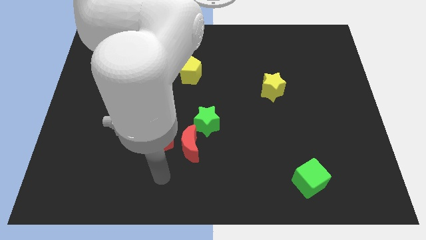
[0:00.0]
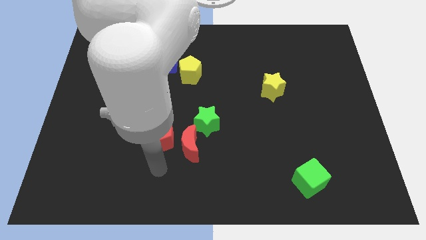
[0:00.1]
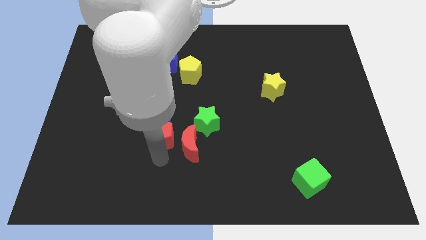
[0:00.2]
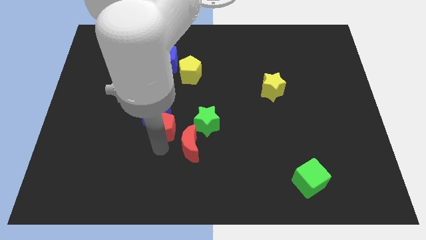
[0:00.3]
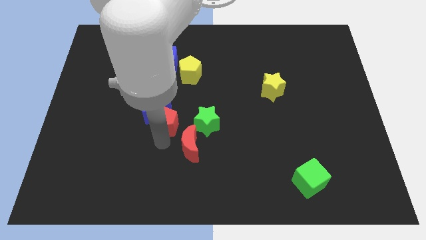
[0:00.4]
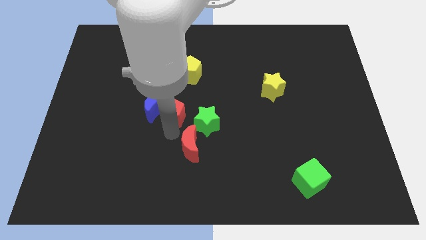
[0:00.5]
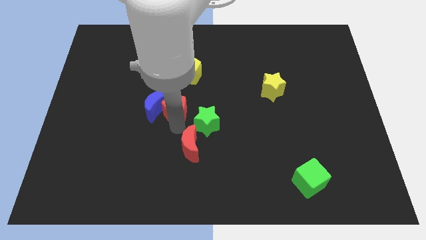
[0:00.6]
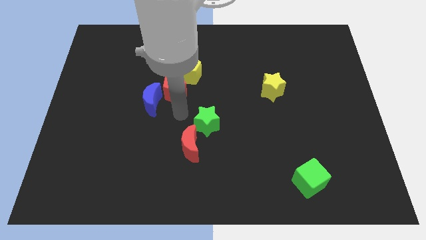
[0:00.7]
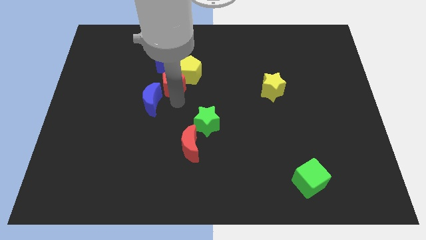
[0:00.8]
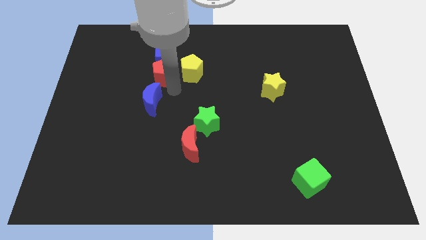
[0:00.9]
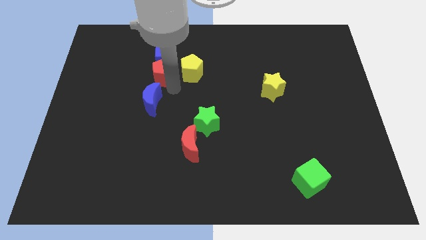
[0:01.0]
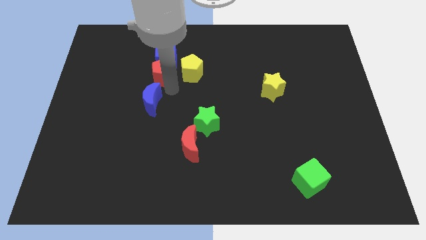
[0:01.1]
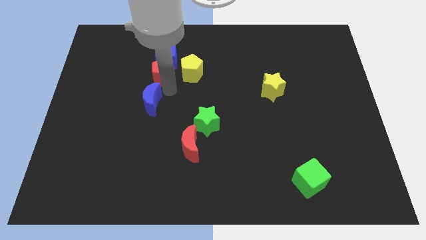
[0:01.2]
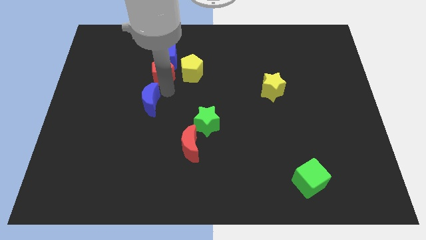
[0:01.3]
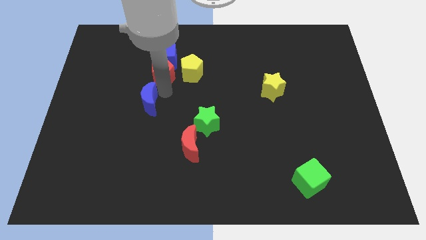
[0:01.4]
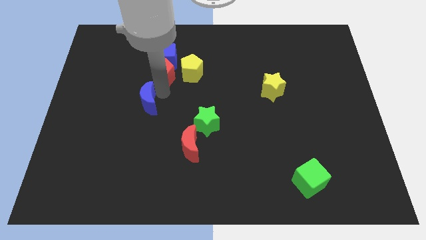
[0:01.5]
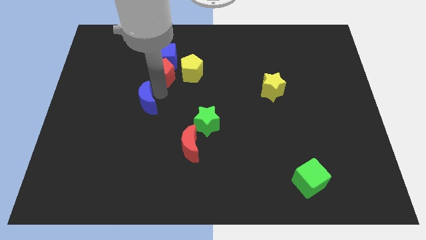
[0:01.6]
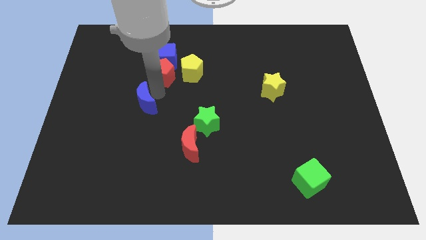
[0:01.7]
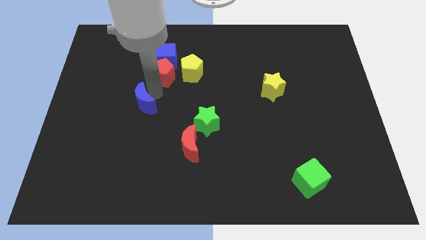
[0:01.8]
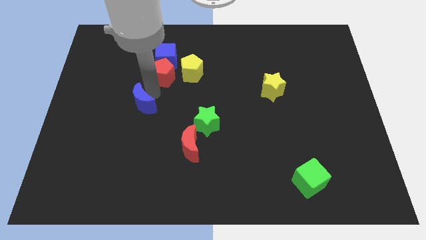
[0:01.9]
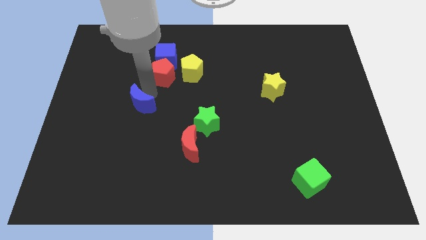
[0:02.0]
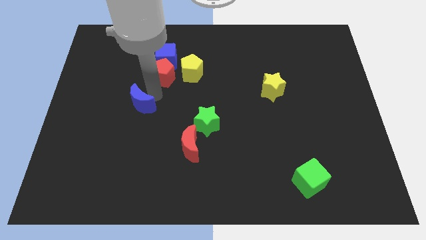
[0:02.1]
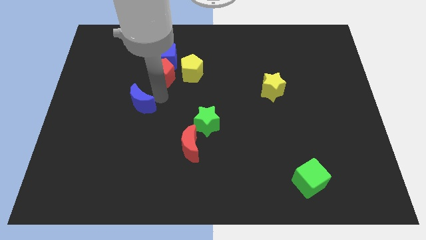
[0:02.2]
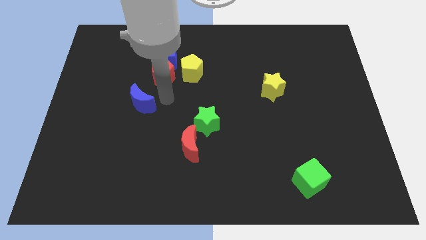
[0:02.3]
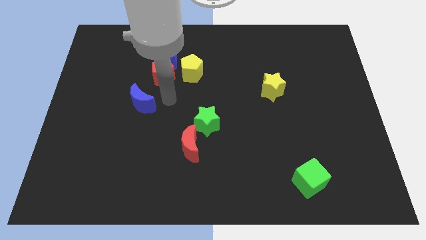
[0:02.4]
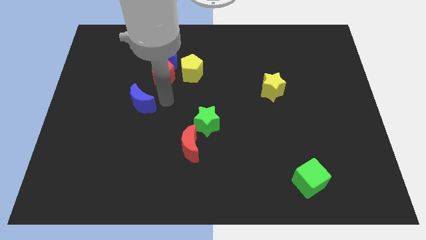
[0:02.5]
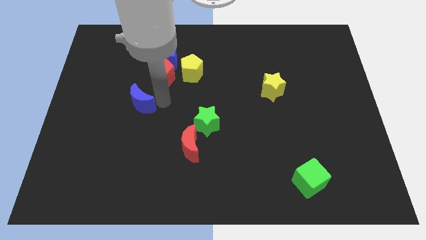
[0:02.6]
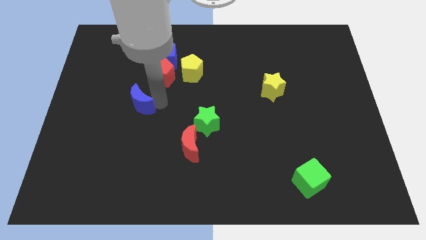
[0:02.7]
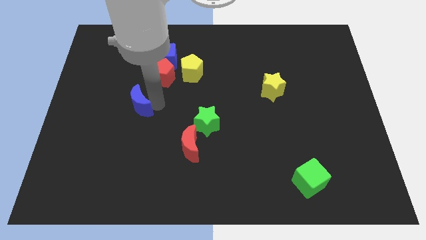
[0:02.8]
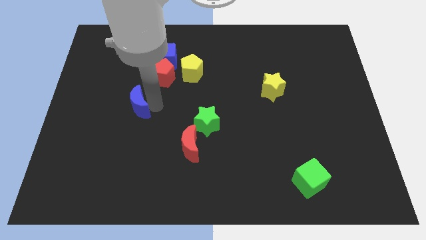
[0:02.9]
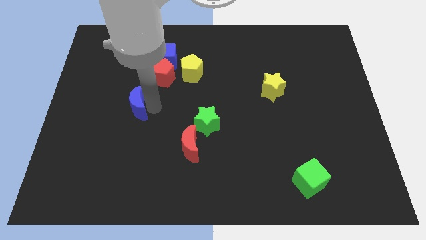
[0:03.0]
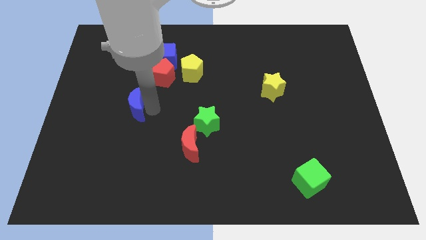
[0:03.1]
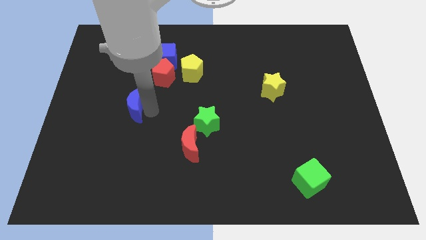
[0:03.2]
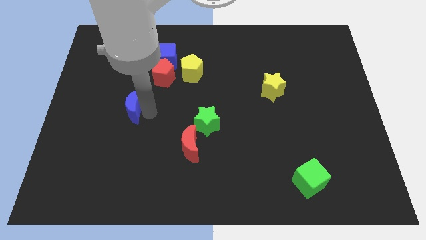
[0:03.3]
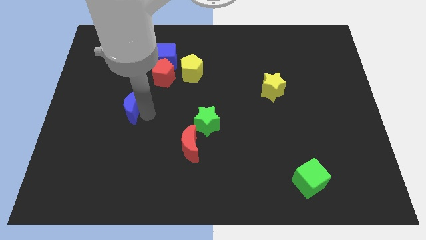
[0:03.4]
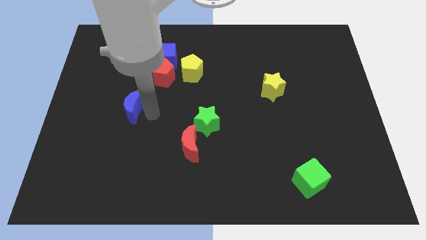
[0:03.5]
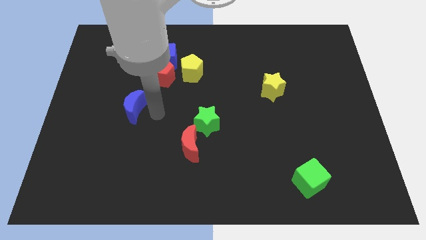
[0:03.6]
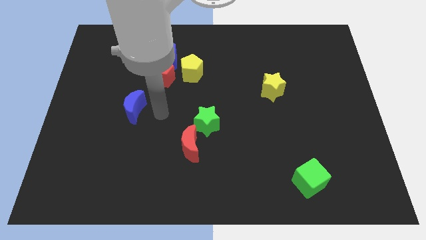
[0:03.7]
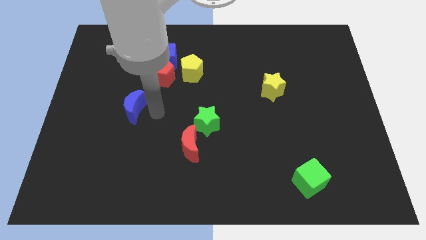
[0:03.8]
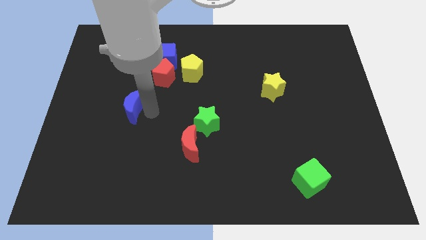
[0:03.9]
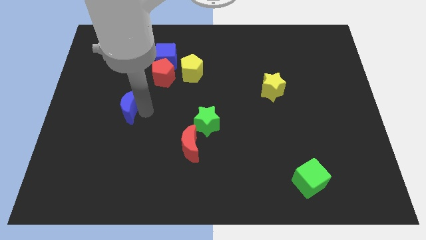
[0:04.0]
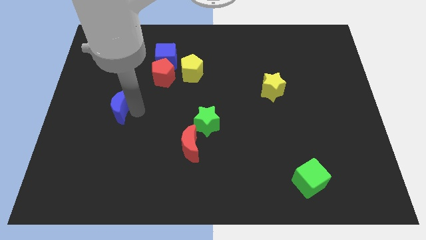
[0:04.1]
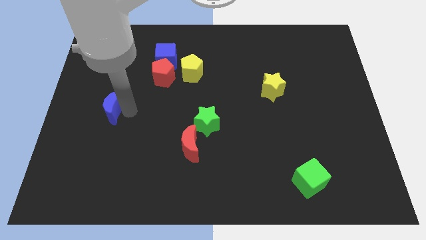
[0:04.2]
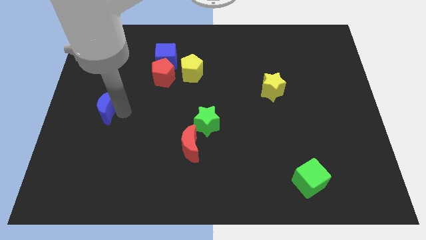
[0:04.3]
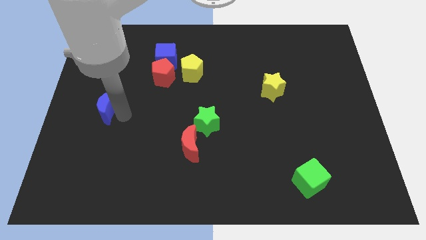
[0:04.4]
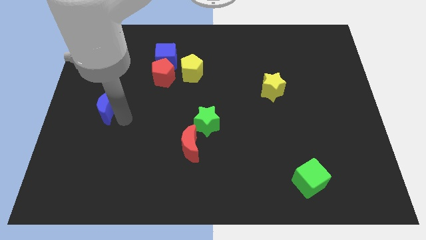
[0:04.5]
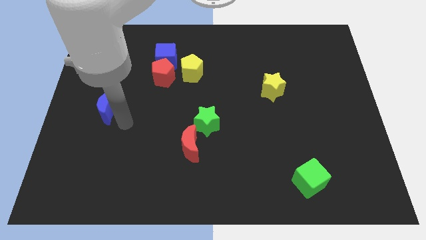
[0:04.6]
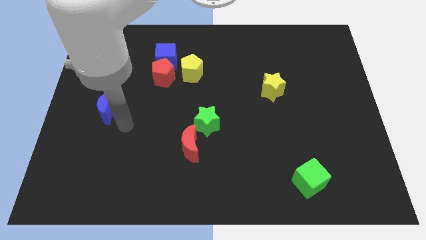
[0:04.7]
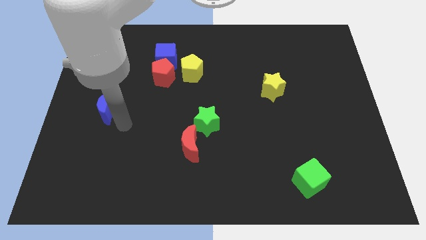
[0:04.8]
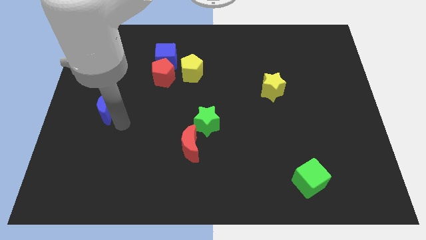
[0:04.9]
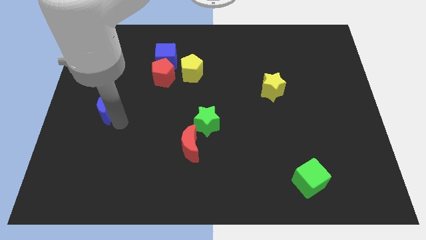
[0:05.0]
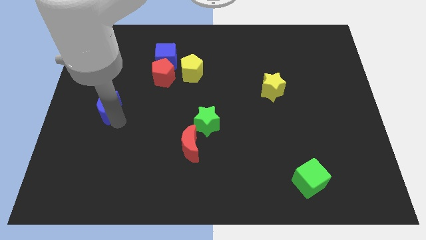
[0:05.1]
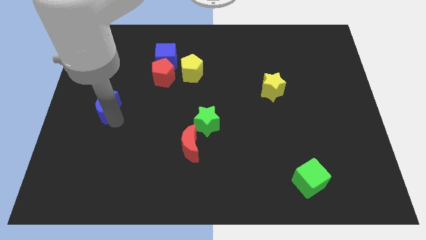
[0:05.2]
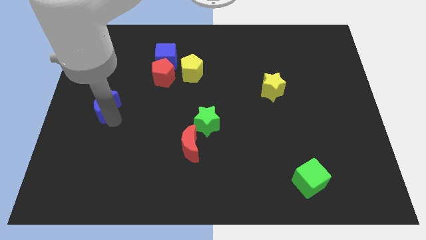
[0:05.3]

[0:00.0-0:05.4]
move the blue moon to the left side

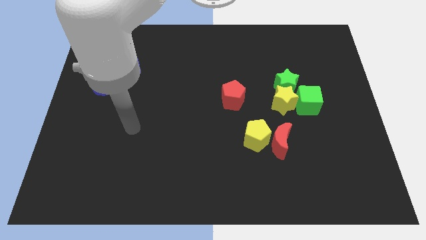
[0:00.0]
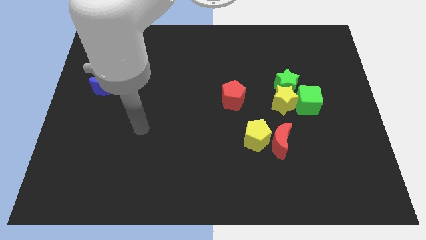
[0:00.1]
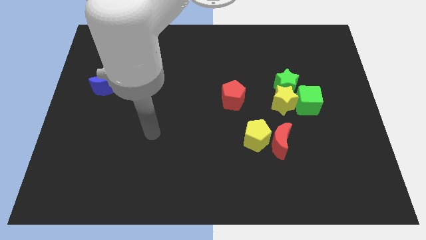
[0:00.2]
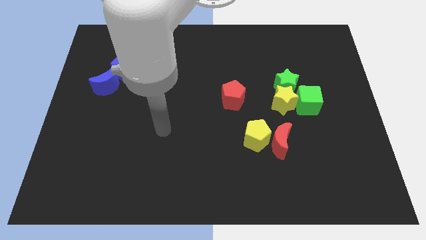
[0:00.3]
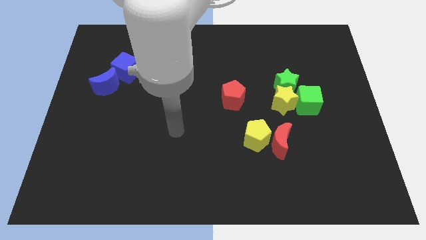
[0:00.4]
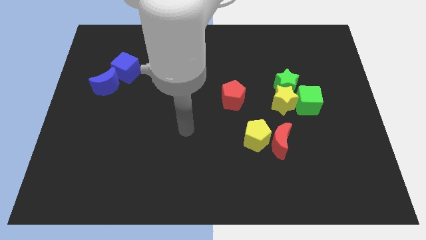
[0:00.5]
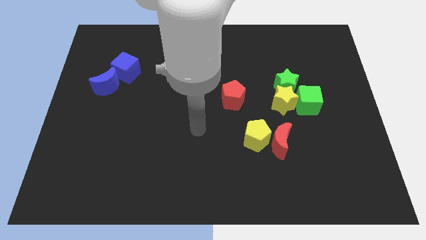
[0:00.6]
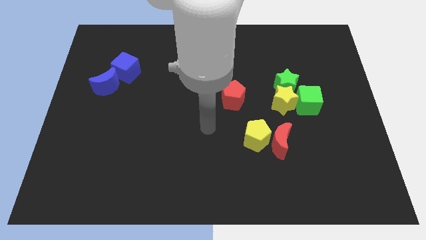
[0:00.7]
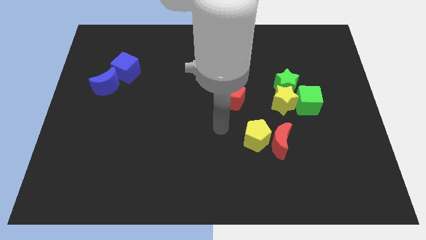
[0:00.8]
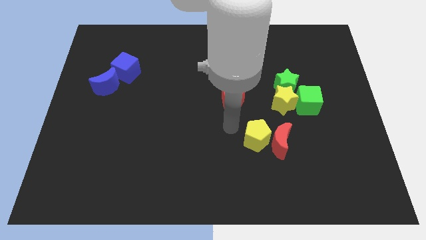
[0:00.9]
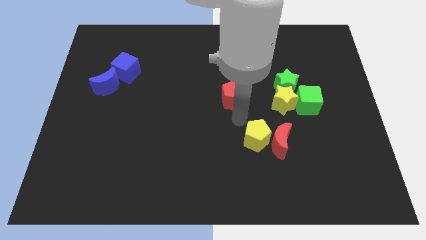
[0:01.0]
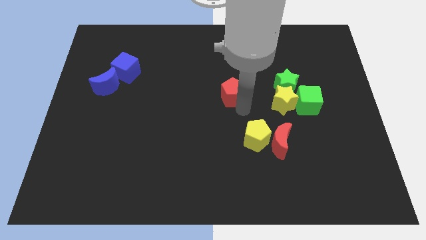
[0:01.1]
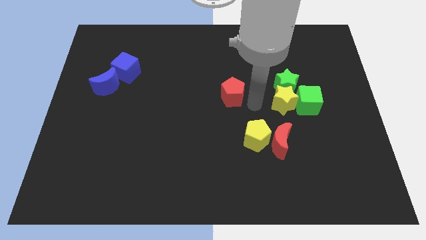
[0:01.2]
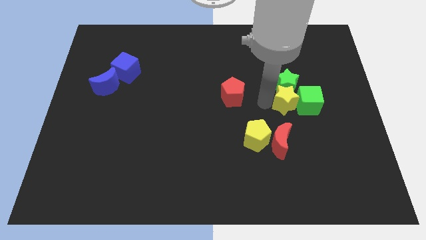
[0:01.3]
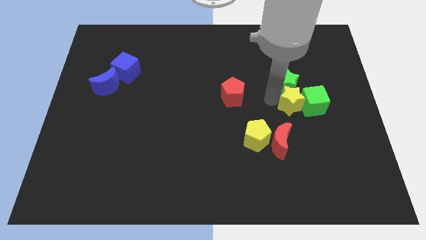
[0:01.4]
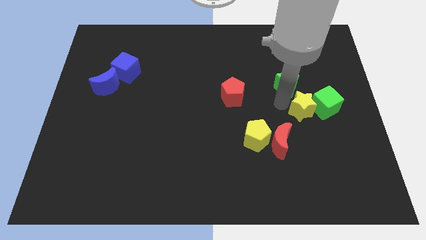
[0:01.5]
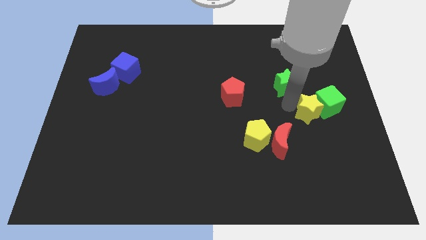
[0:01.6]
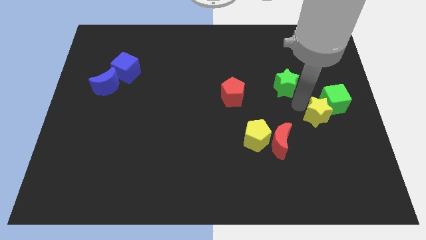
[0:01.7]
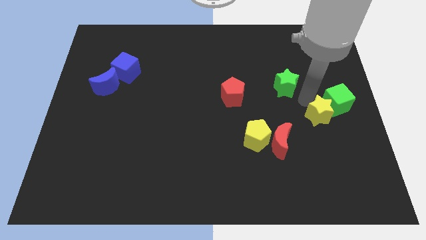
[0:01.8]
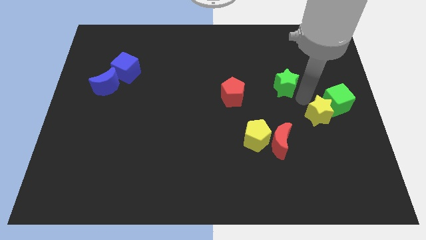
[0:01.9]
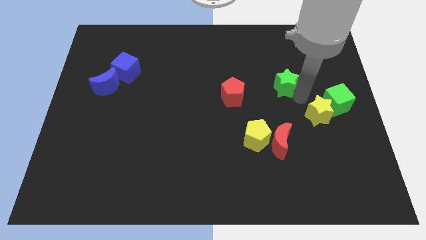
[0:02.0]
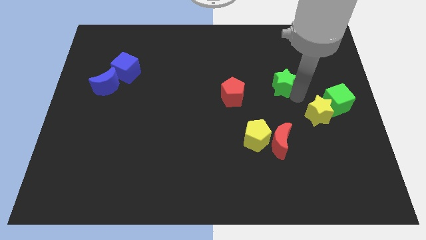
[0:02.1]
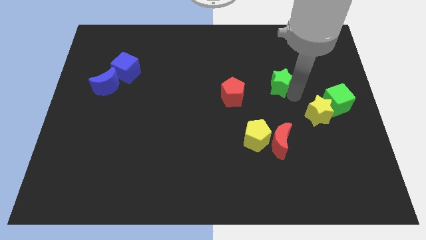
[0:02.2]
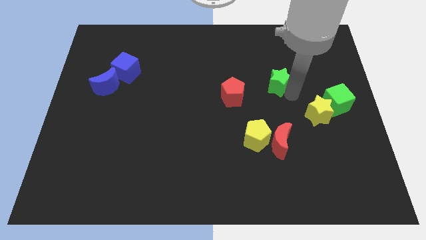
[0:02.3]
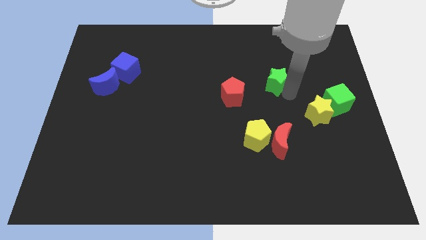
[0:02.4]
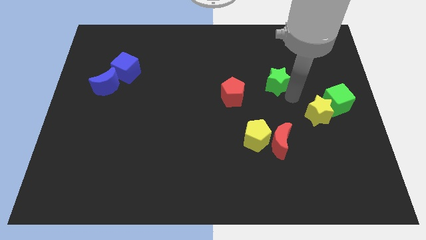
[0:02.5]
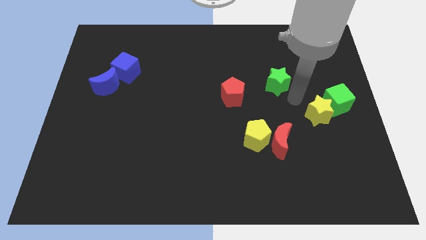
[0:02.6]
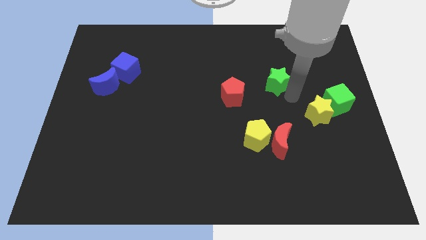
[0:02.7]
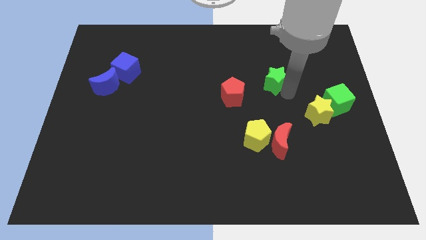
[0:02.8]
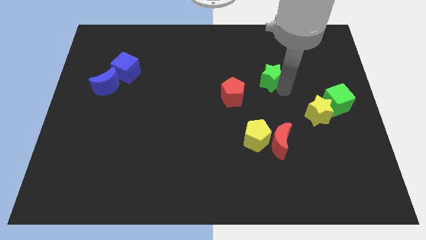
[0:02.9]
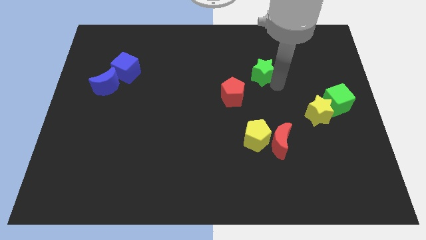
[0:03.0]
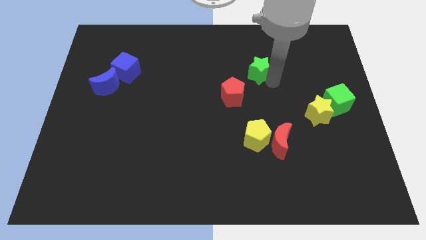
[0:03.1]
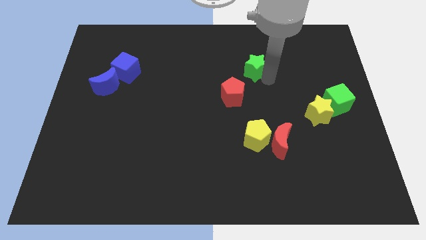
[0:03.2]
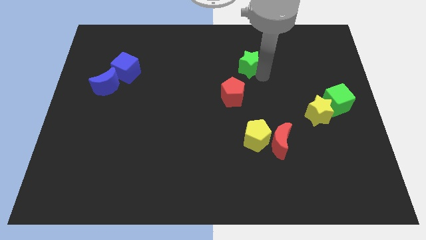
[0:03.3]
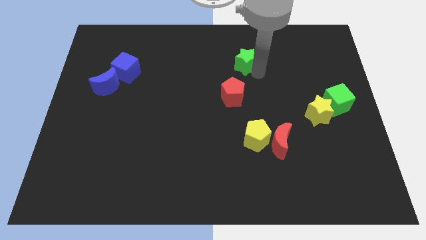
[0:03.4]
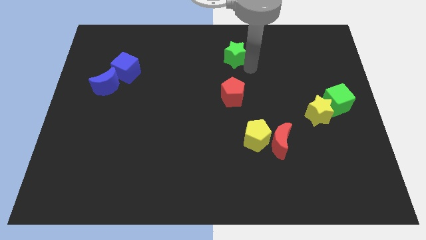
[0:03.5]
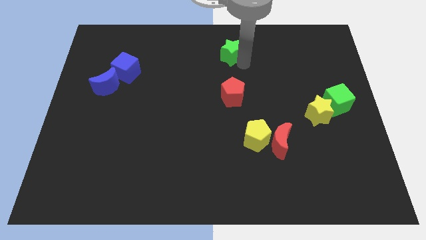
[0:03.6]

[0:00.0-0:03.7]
put the green star to the towards your base
